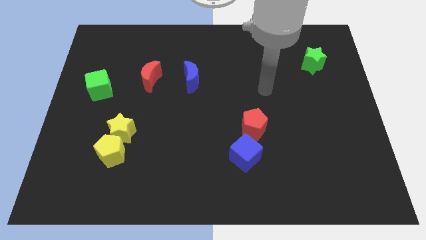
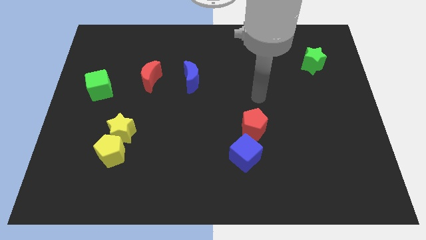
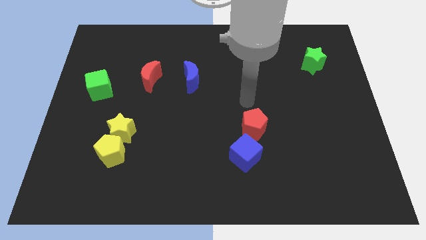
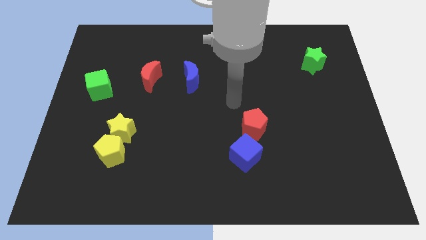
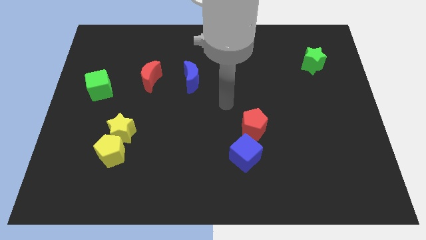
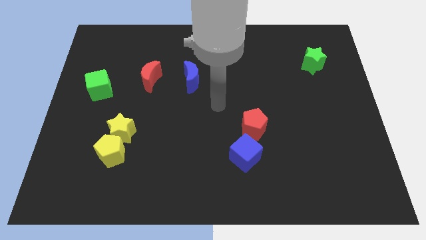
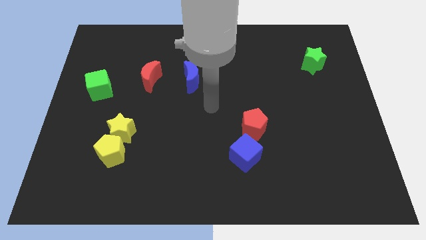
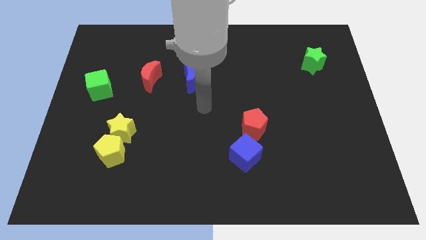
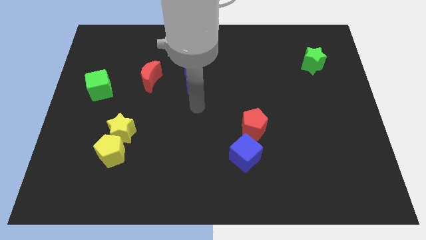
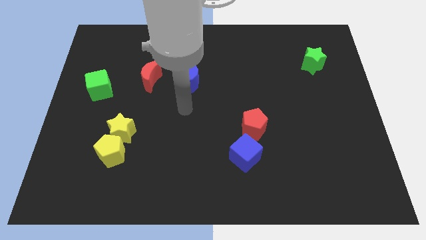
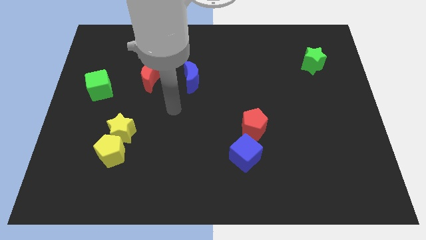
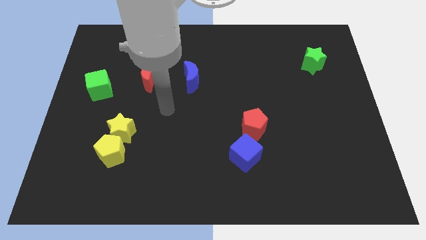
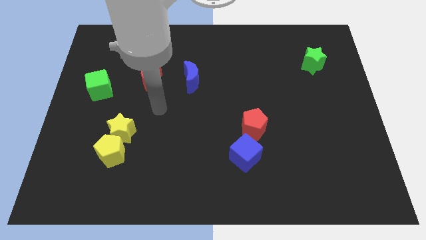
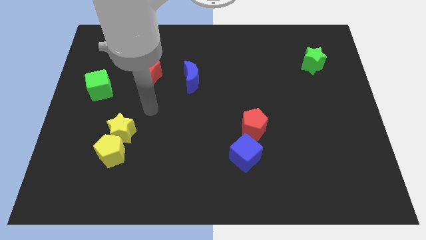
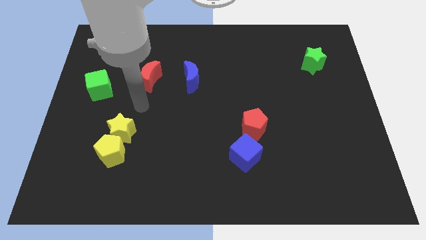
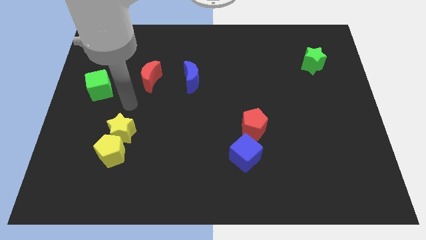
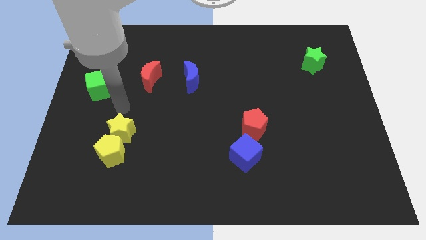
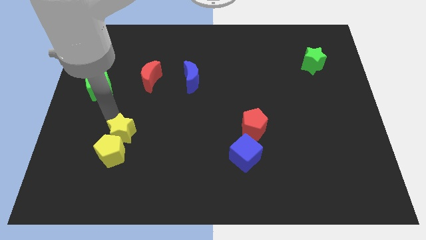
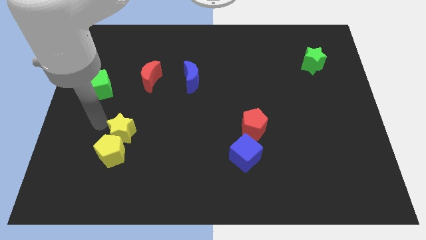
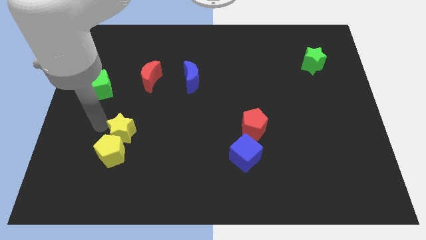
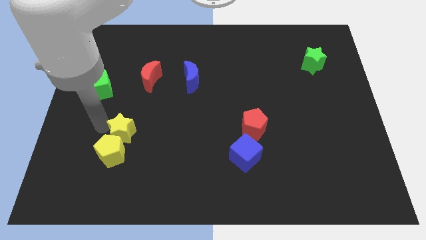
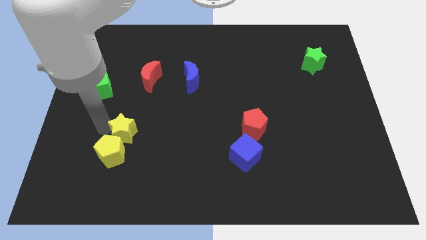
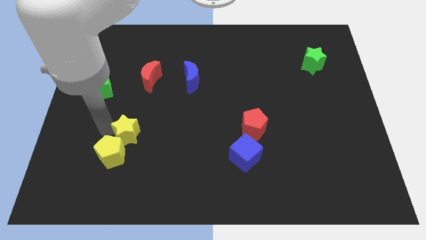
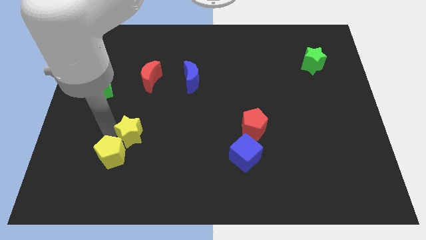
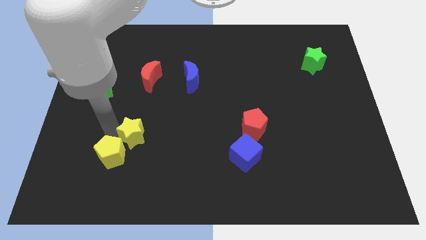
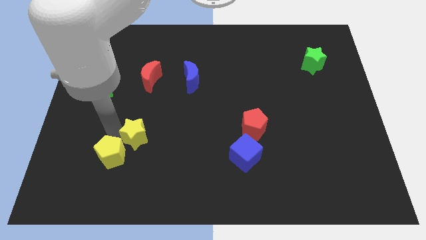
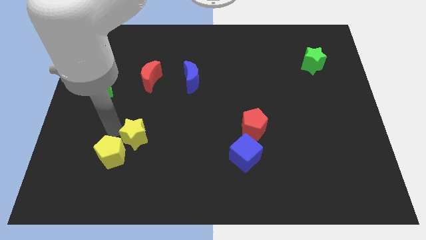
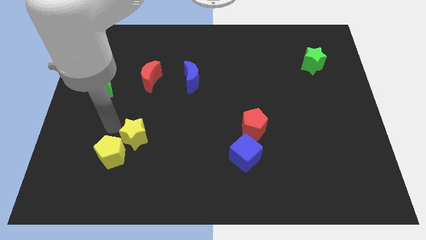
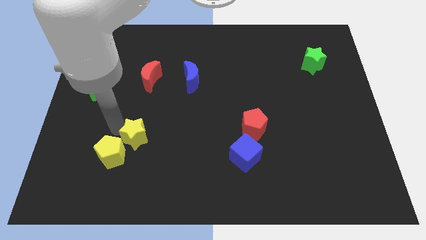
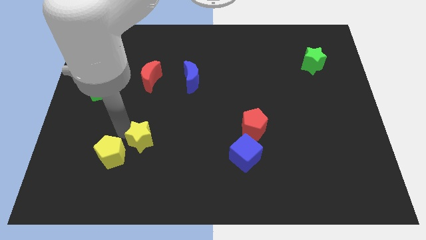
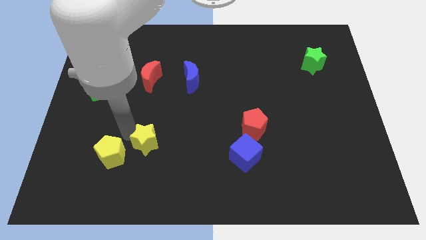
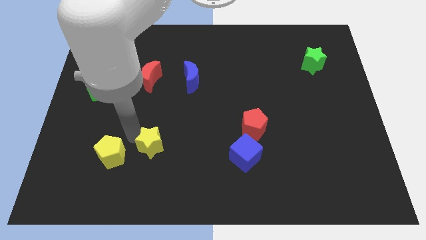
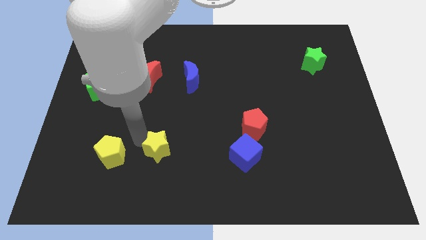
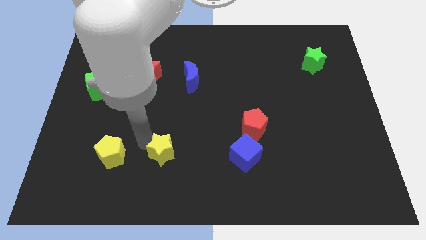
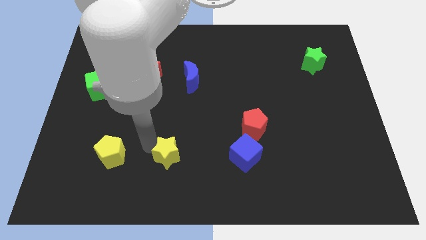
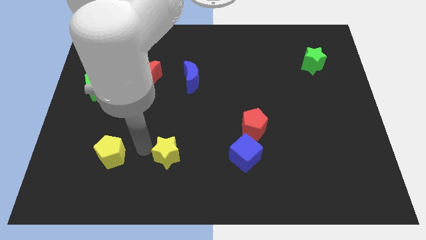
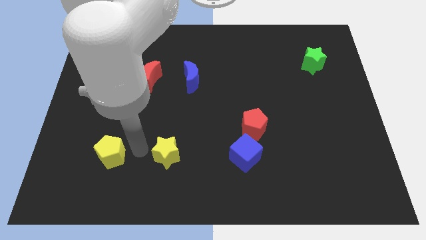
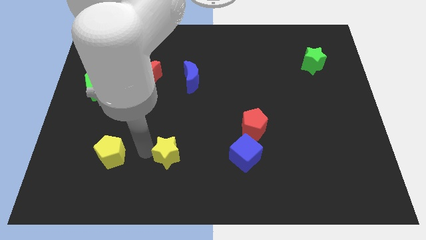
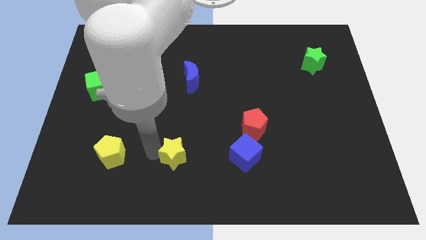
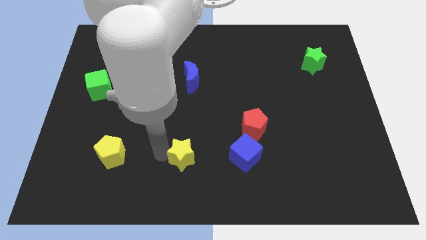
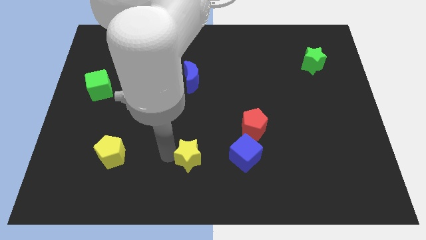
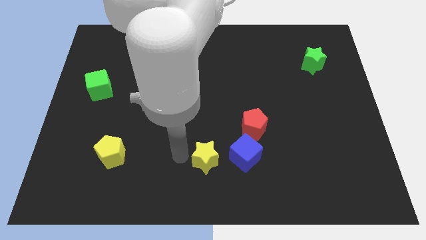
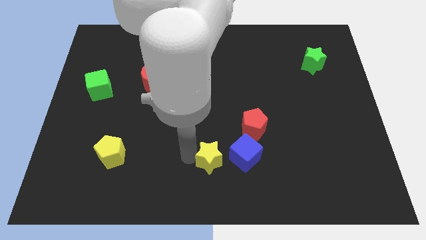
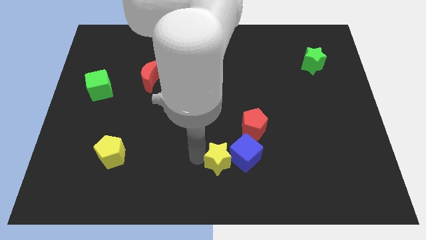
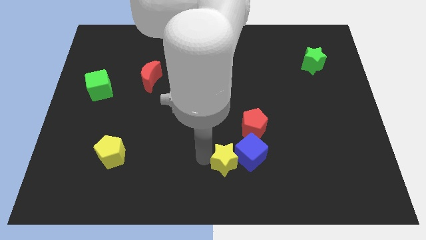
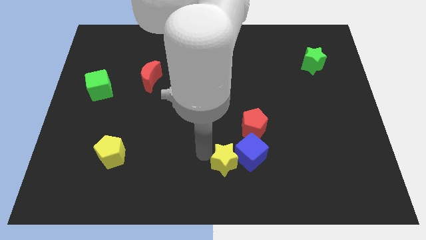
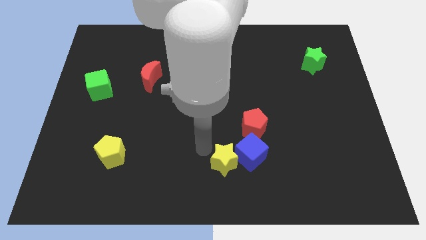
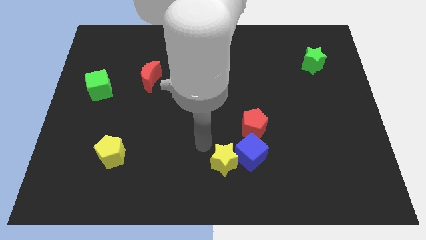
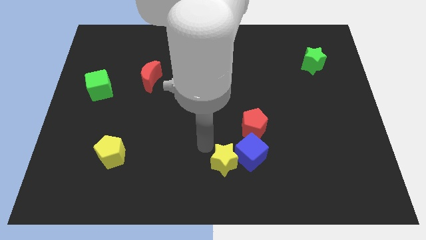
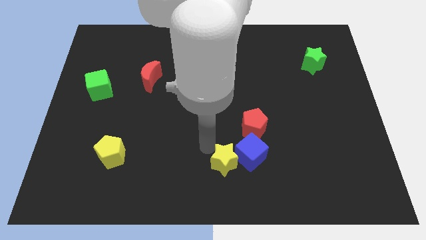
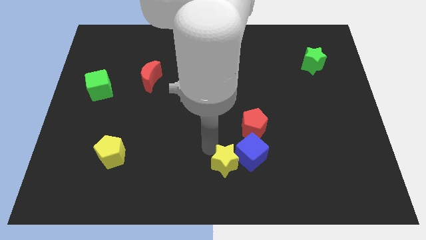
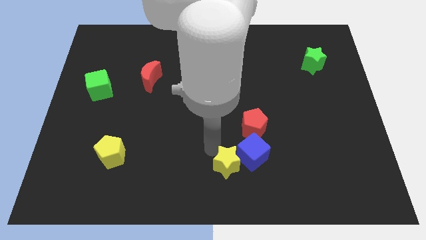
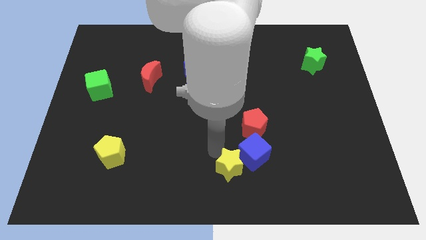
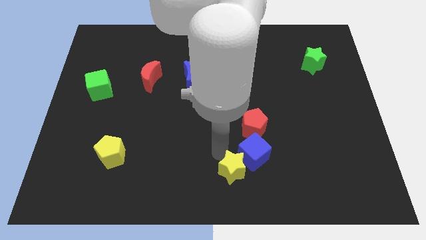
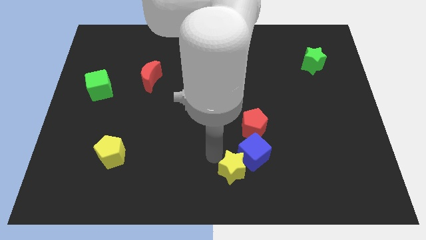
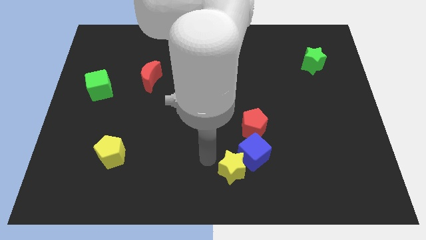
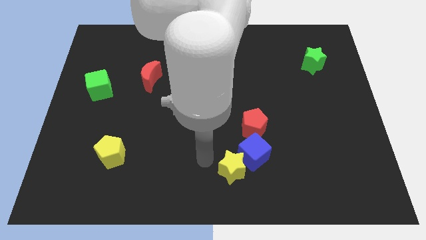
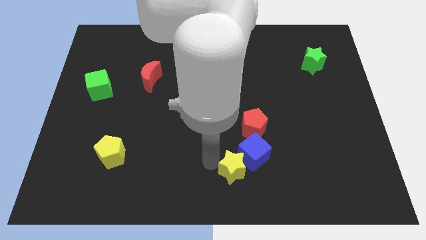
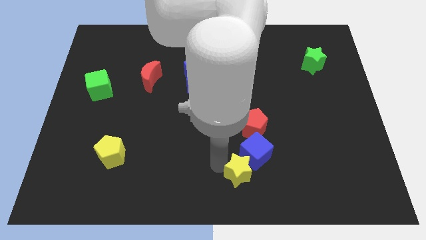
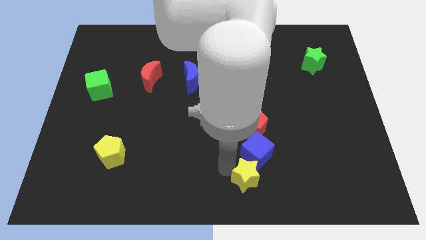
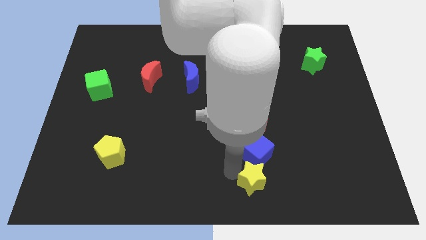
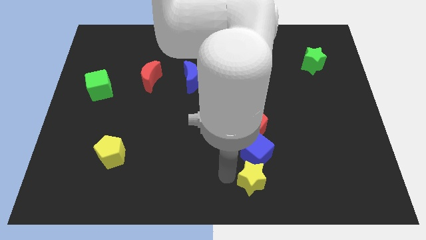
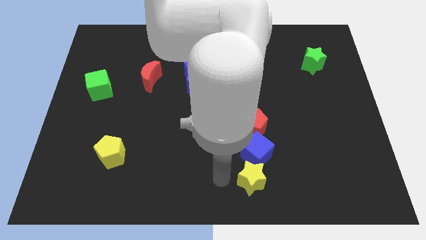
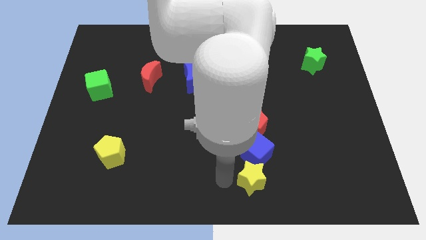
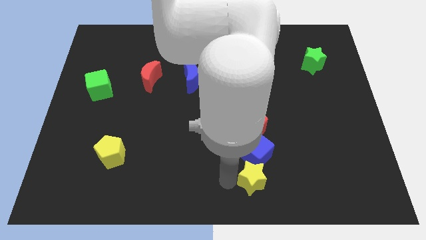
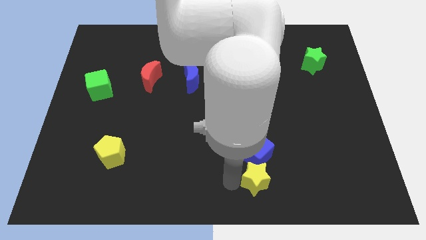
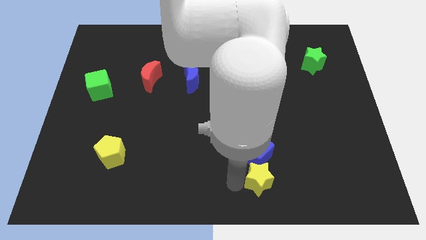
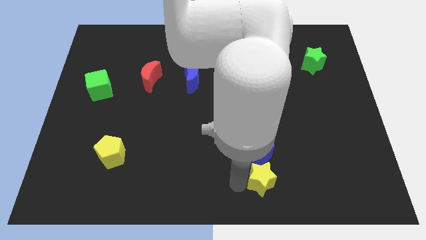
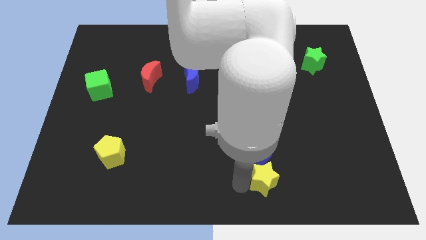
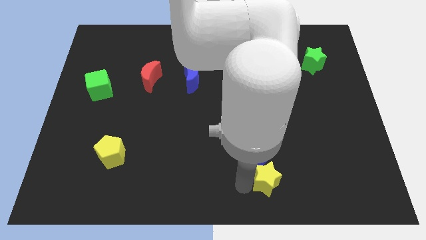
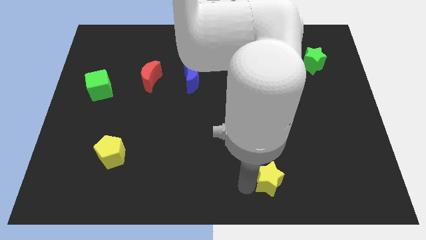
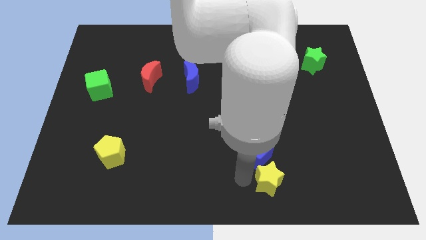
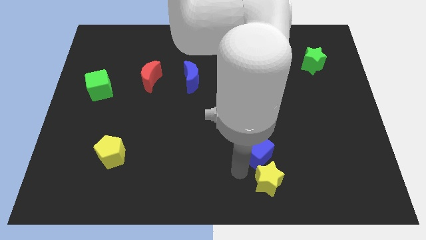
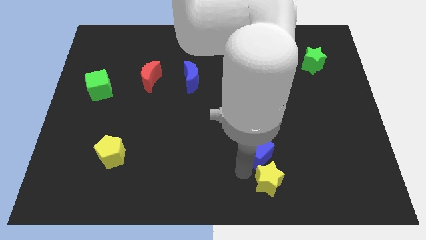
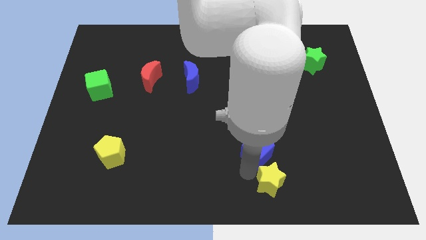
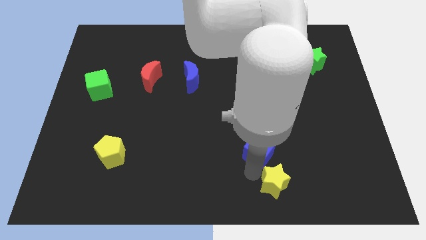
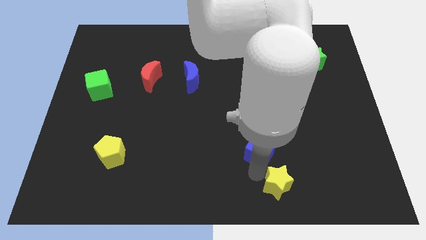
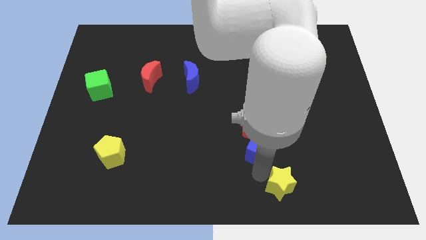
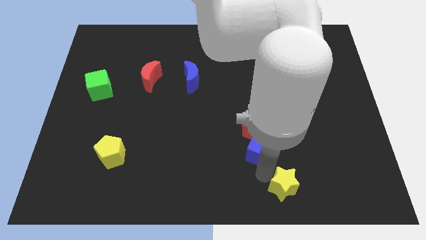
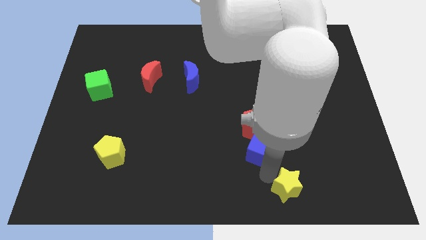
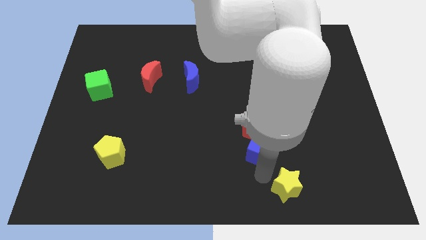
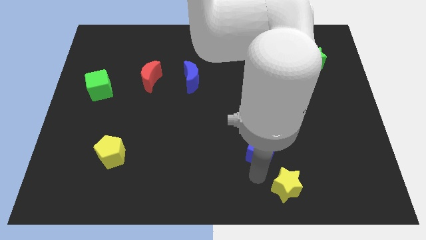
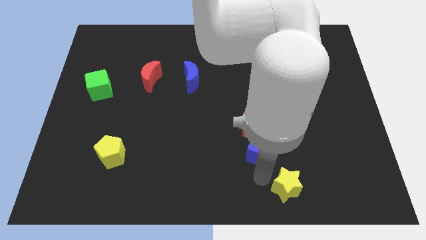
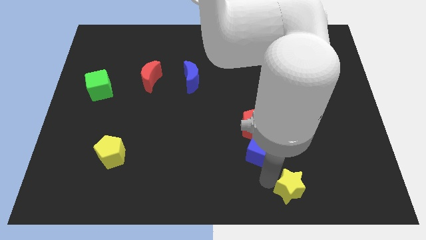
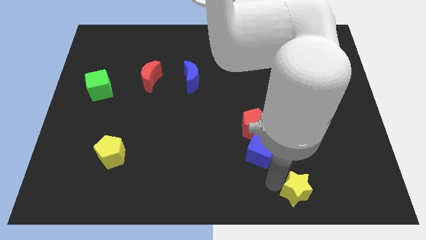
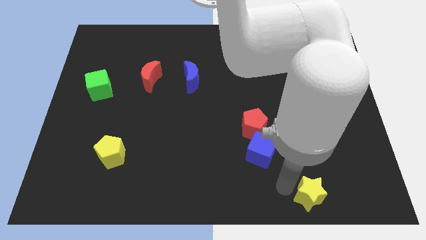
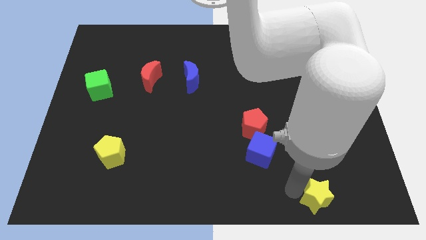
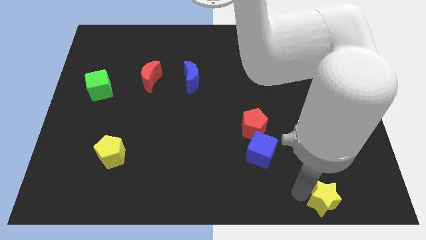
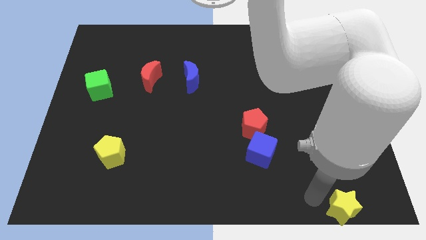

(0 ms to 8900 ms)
push the yellow star to the bottom right of the board
